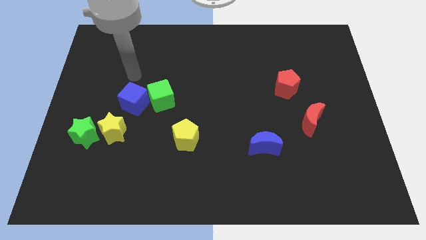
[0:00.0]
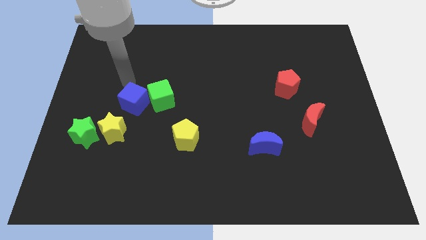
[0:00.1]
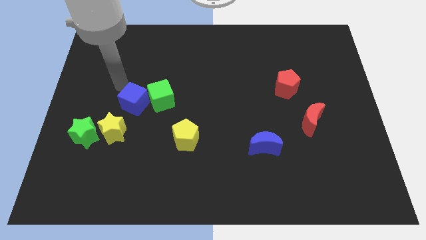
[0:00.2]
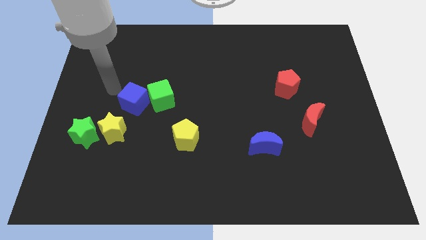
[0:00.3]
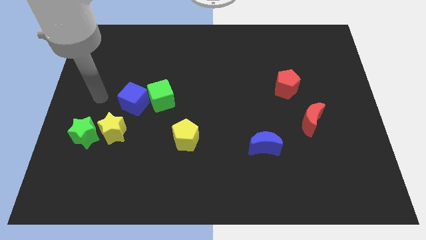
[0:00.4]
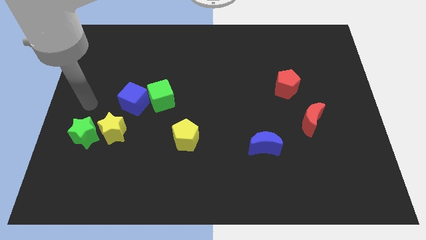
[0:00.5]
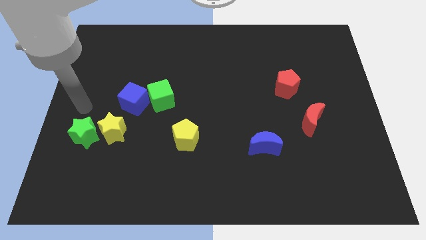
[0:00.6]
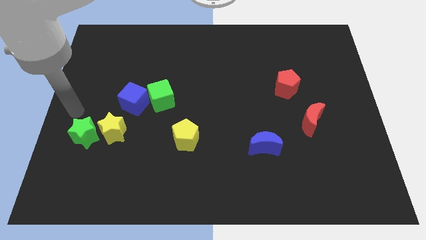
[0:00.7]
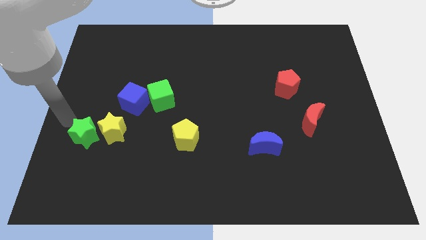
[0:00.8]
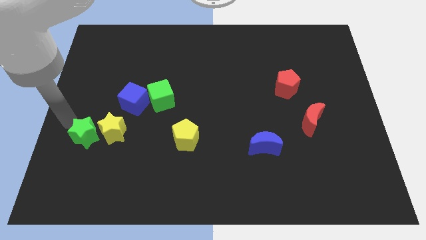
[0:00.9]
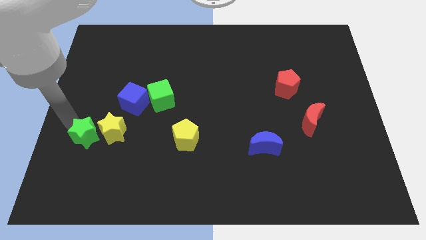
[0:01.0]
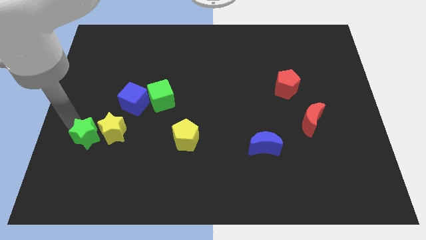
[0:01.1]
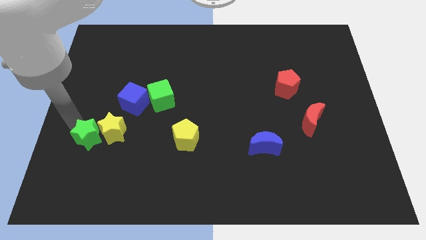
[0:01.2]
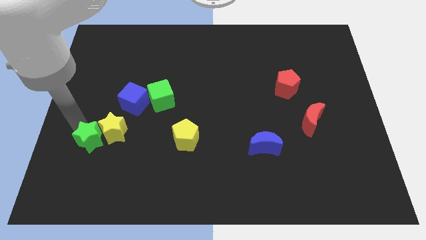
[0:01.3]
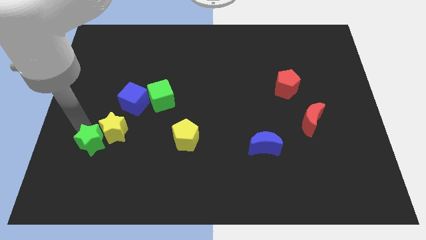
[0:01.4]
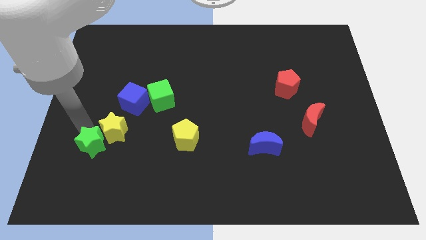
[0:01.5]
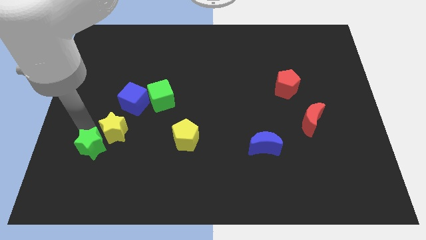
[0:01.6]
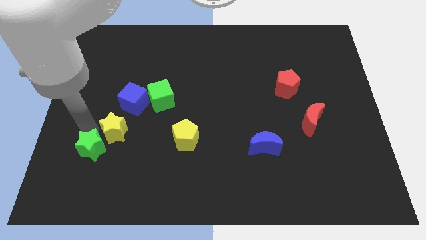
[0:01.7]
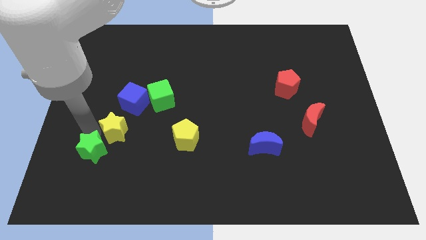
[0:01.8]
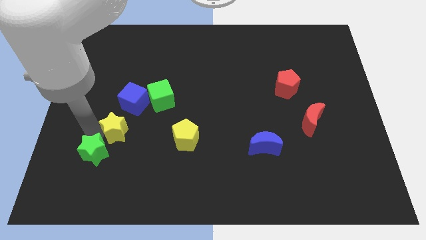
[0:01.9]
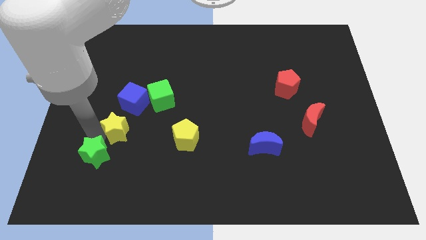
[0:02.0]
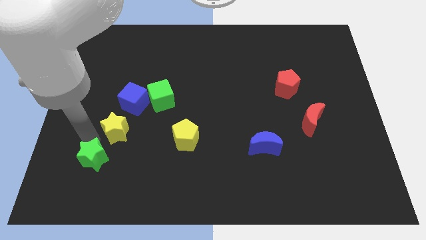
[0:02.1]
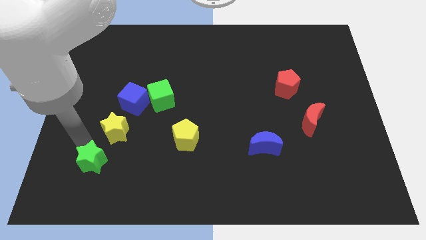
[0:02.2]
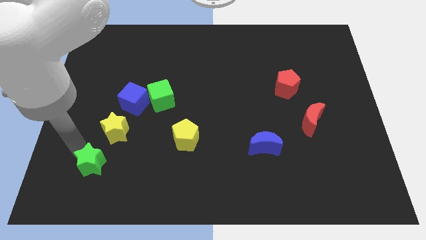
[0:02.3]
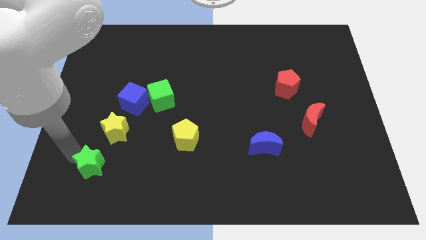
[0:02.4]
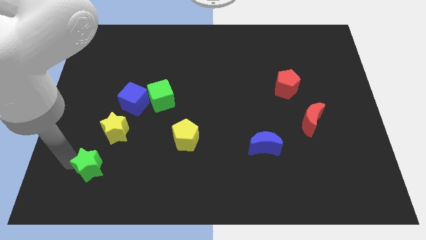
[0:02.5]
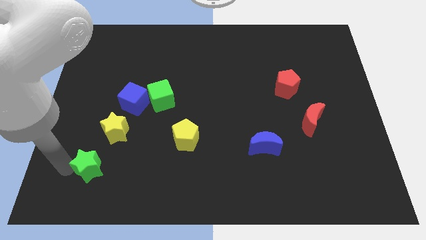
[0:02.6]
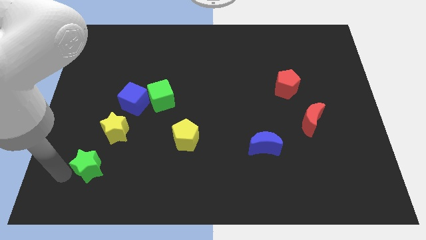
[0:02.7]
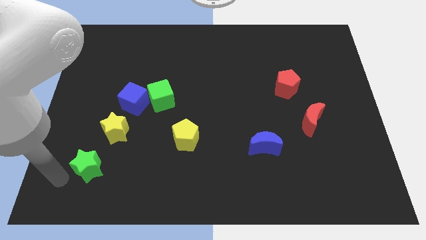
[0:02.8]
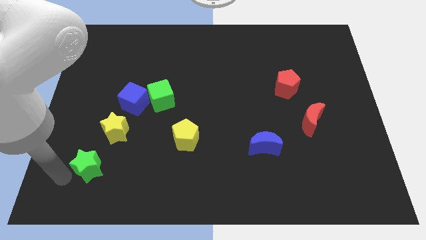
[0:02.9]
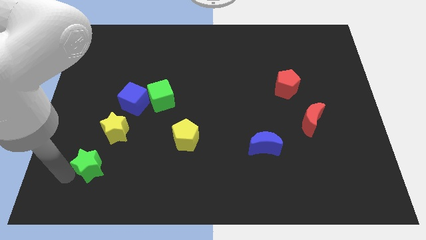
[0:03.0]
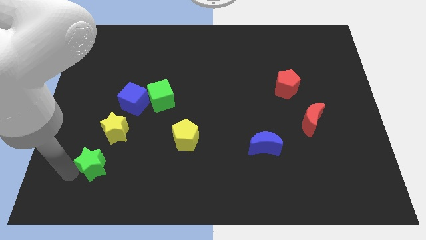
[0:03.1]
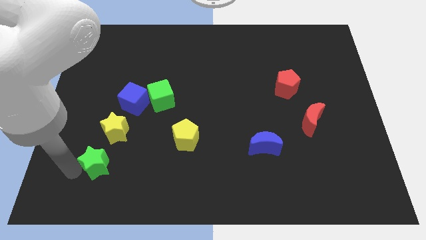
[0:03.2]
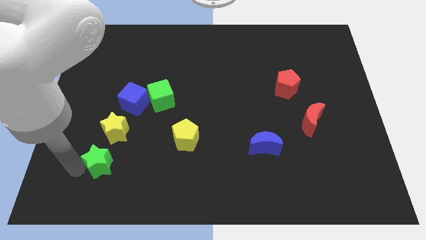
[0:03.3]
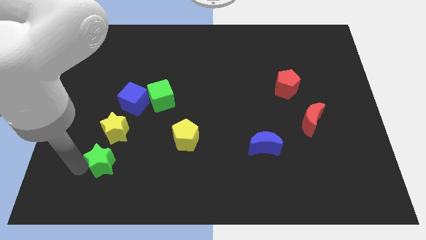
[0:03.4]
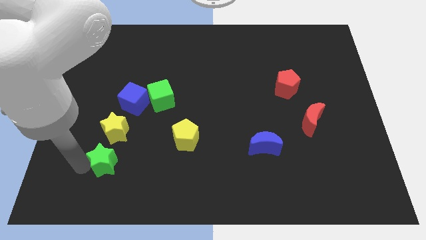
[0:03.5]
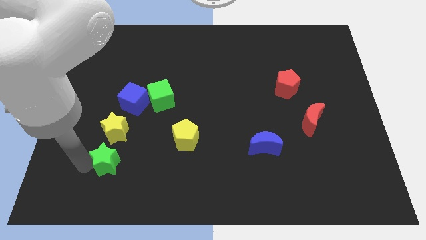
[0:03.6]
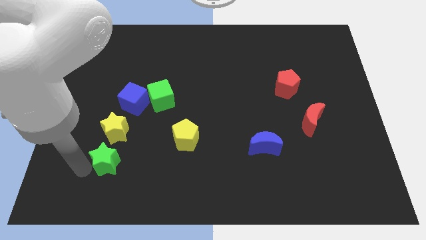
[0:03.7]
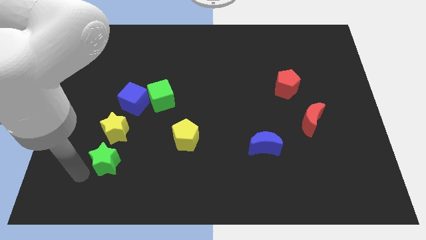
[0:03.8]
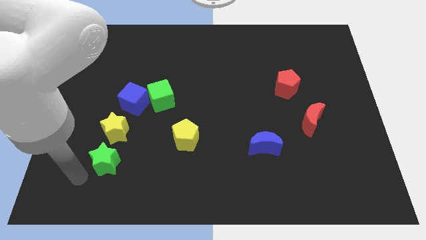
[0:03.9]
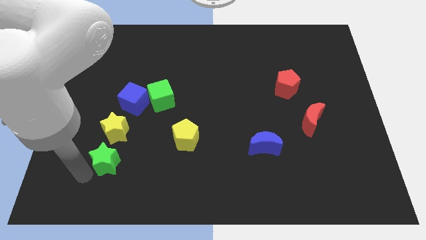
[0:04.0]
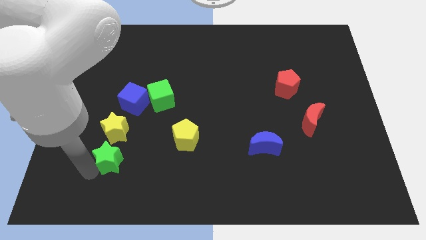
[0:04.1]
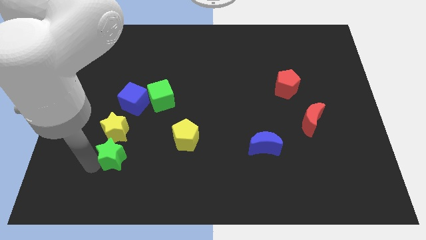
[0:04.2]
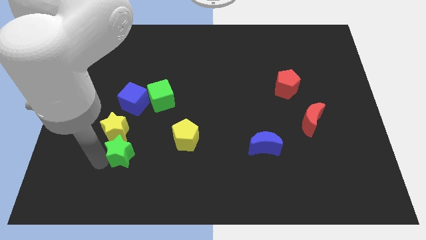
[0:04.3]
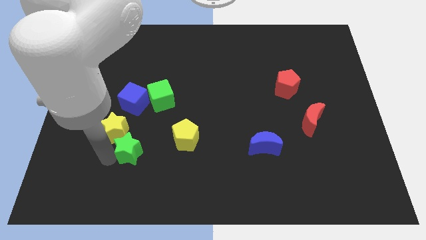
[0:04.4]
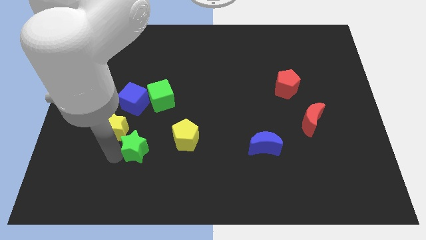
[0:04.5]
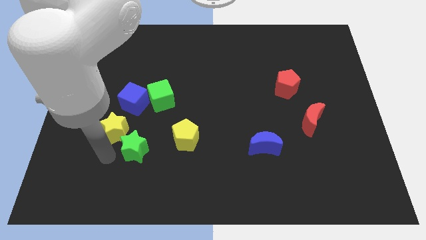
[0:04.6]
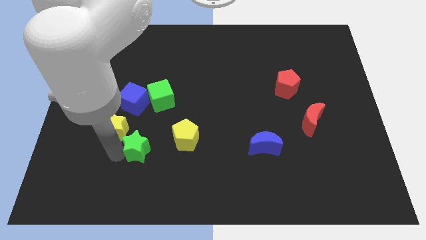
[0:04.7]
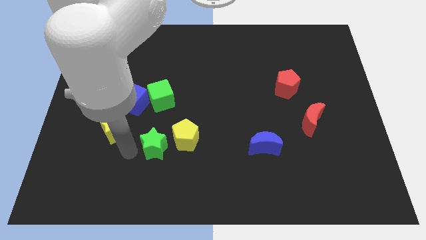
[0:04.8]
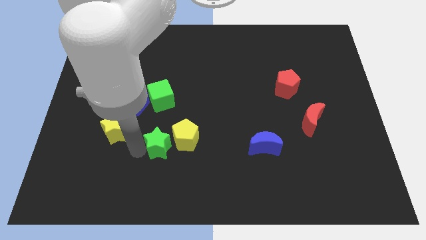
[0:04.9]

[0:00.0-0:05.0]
slide the green star to the yellow pentagon

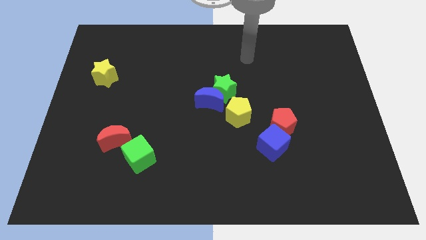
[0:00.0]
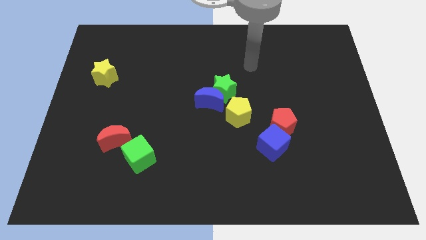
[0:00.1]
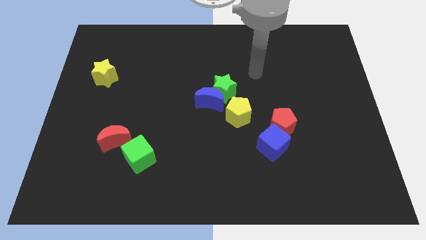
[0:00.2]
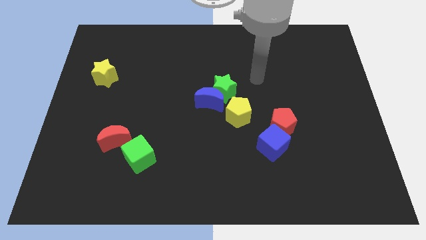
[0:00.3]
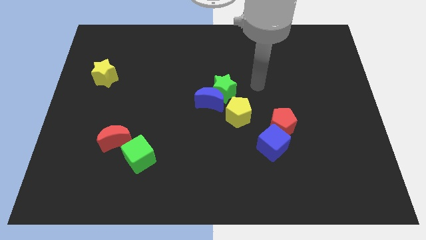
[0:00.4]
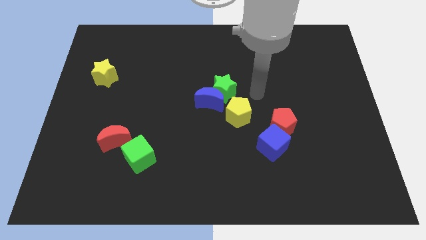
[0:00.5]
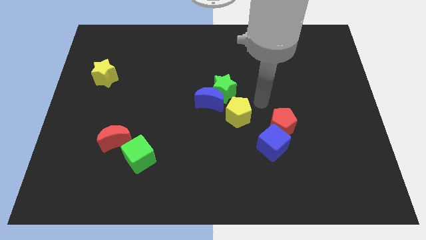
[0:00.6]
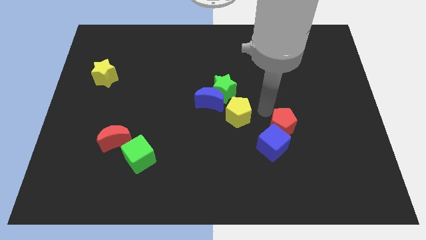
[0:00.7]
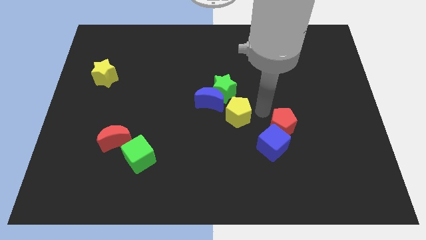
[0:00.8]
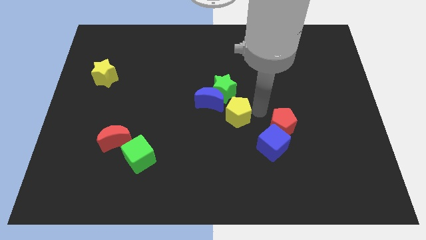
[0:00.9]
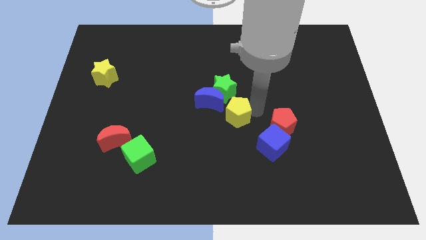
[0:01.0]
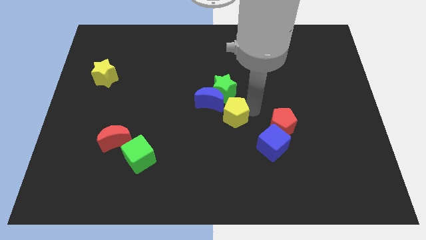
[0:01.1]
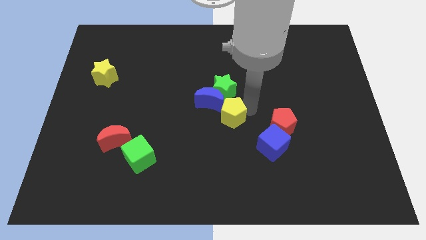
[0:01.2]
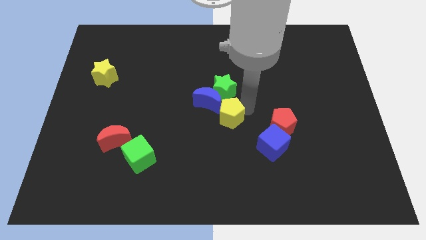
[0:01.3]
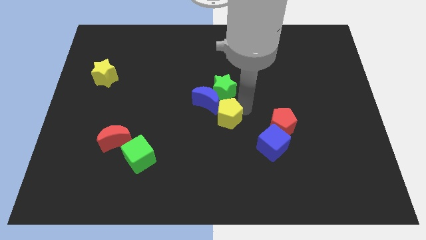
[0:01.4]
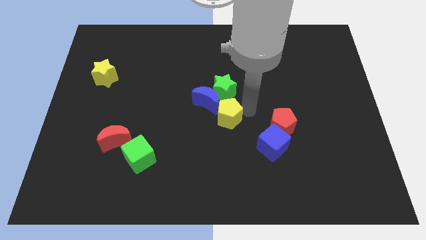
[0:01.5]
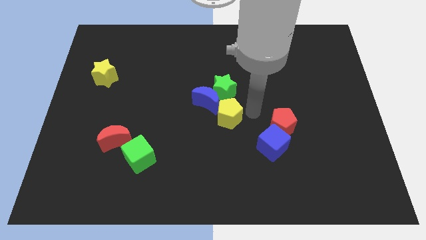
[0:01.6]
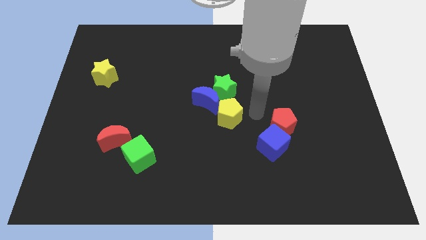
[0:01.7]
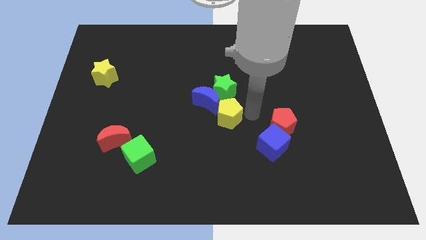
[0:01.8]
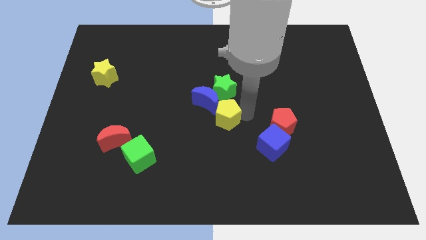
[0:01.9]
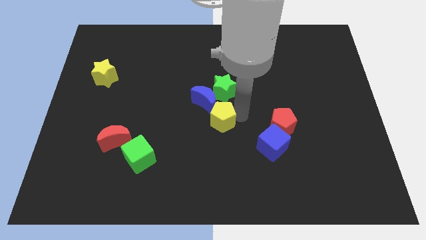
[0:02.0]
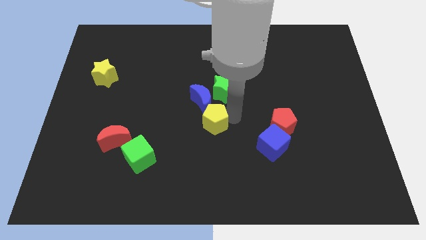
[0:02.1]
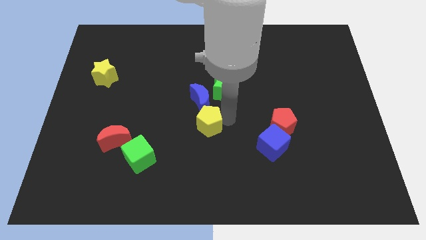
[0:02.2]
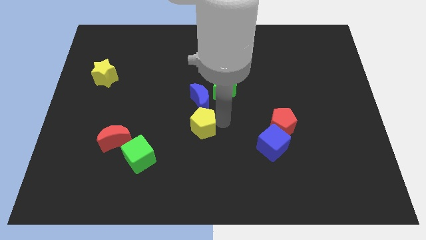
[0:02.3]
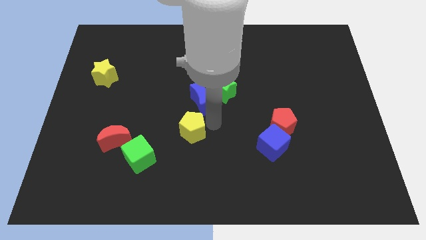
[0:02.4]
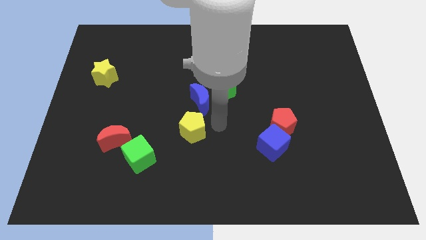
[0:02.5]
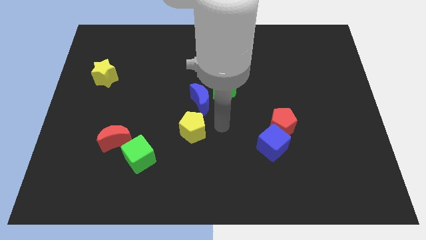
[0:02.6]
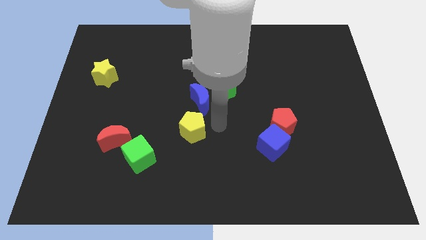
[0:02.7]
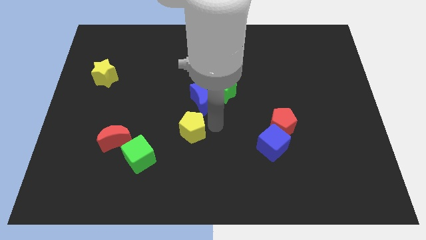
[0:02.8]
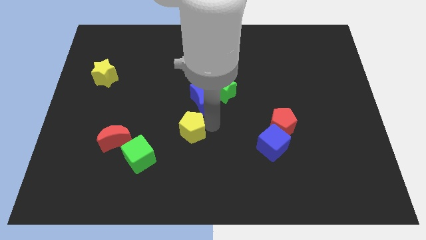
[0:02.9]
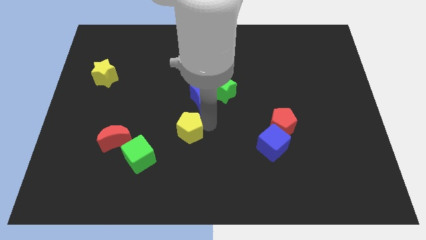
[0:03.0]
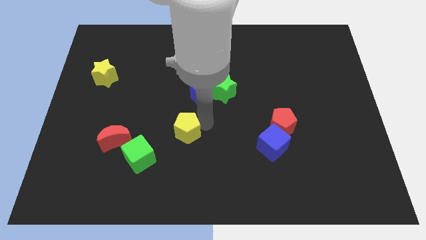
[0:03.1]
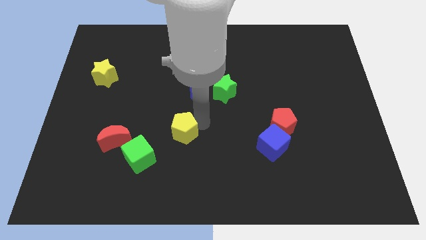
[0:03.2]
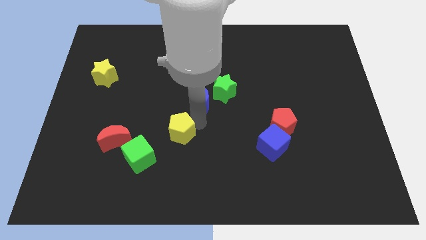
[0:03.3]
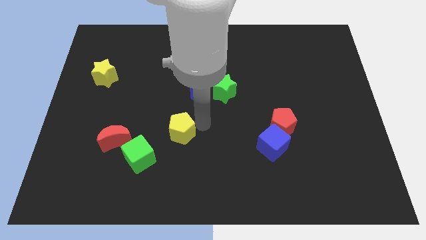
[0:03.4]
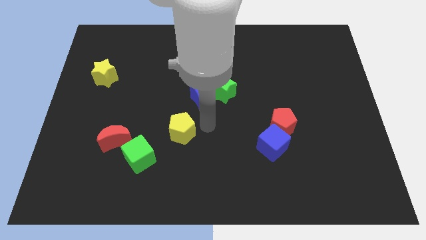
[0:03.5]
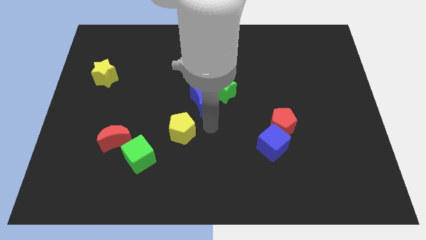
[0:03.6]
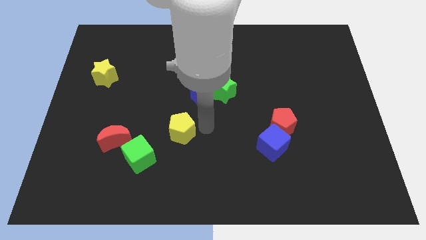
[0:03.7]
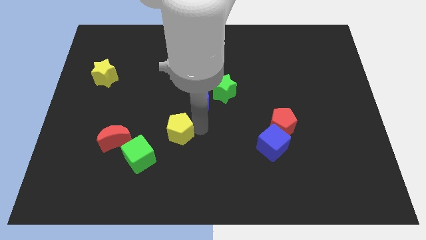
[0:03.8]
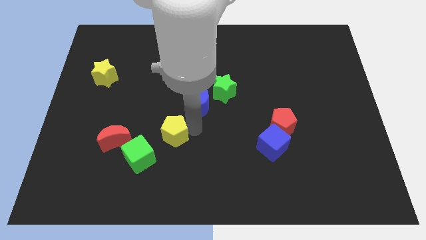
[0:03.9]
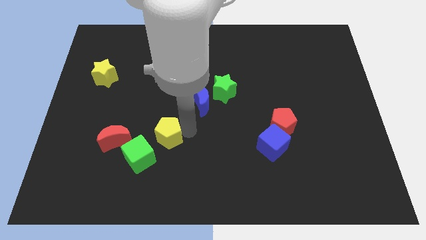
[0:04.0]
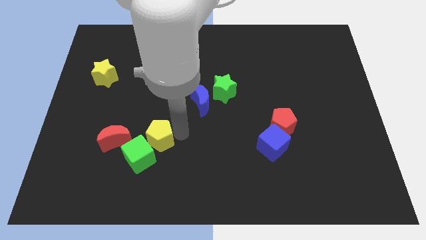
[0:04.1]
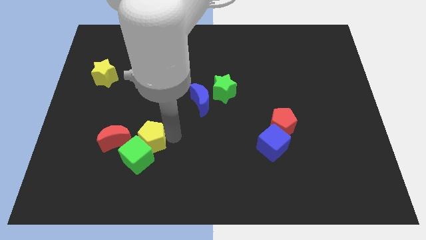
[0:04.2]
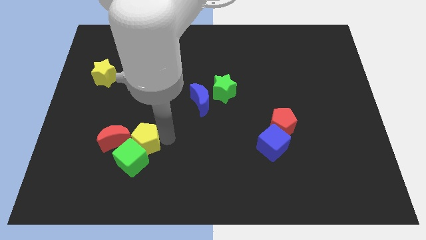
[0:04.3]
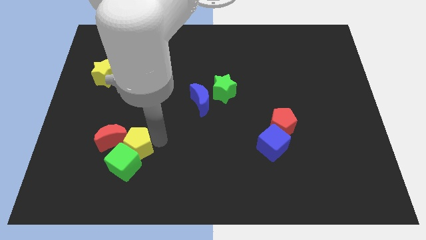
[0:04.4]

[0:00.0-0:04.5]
push the yellow pentagon towards the red moon
